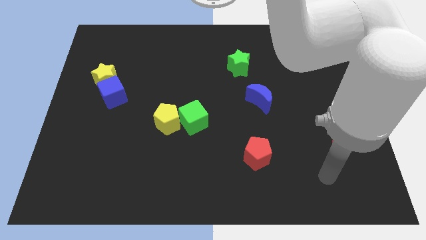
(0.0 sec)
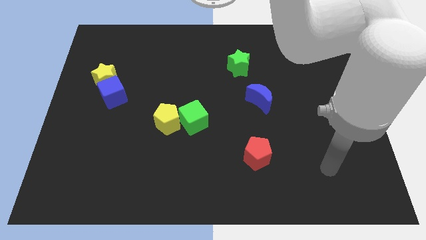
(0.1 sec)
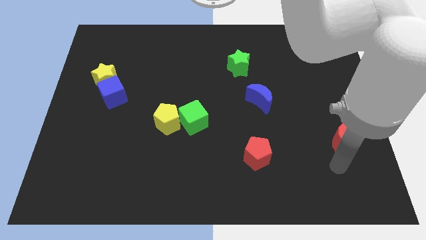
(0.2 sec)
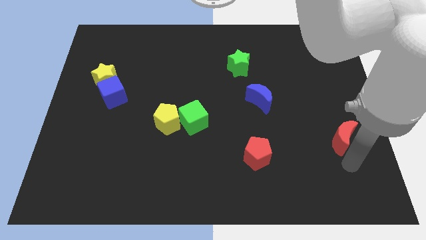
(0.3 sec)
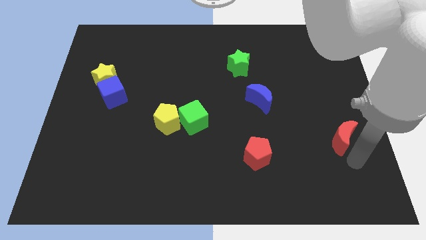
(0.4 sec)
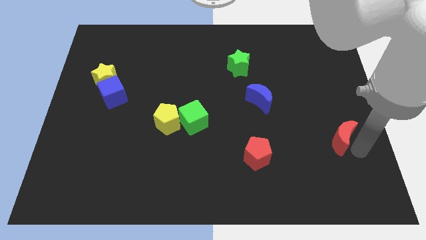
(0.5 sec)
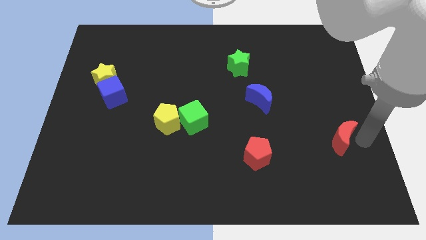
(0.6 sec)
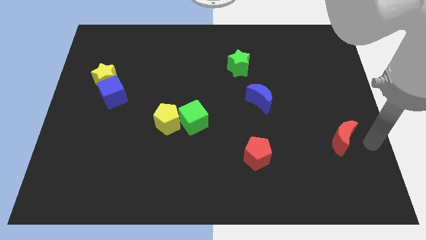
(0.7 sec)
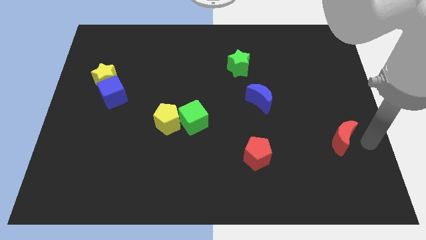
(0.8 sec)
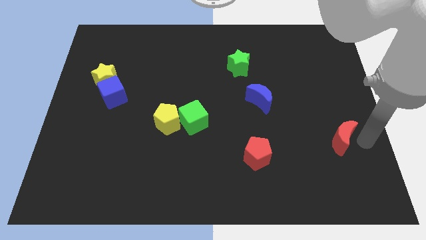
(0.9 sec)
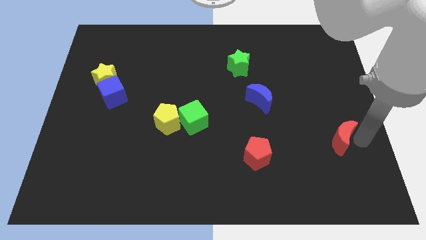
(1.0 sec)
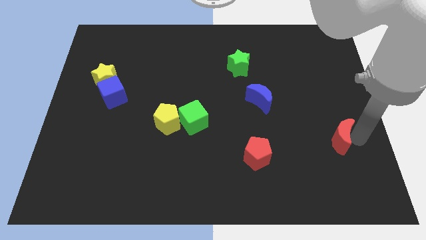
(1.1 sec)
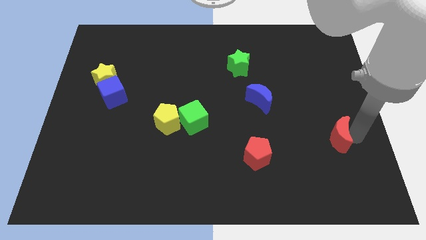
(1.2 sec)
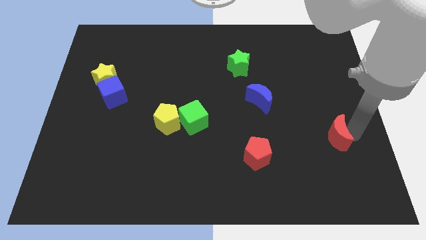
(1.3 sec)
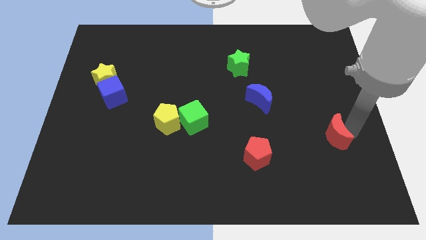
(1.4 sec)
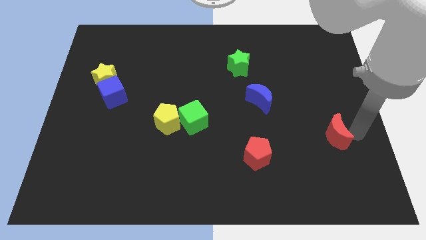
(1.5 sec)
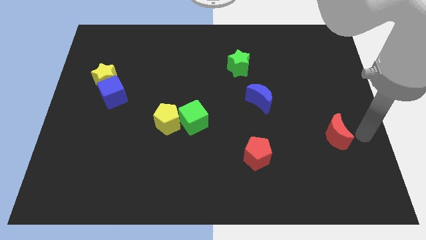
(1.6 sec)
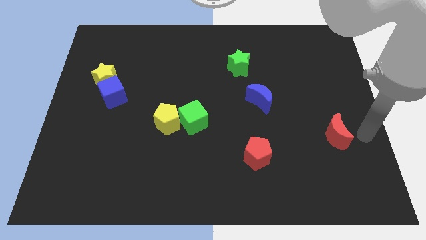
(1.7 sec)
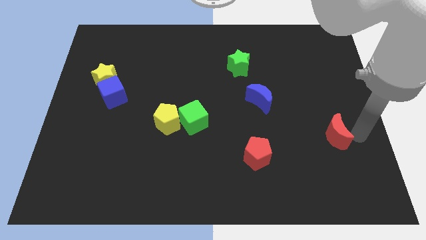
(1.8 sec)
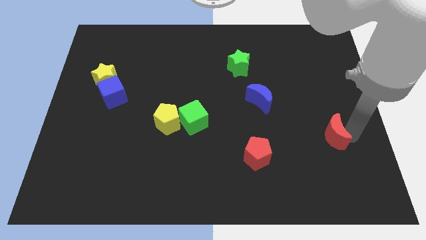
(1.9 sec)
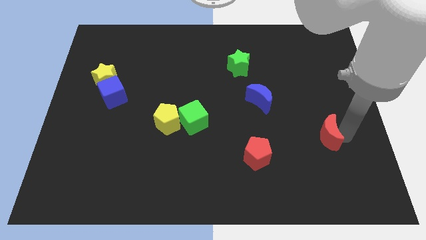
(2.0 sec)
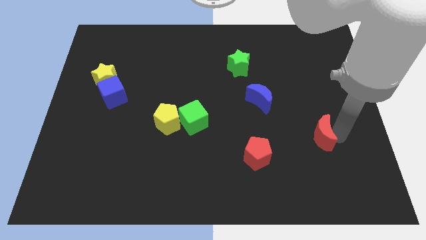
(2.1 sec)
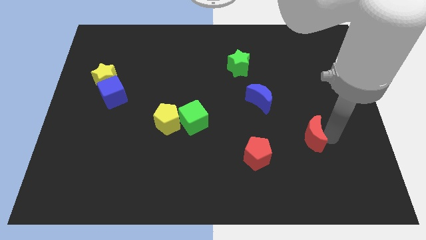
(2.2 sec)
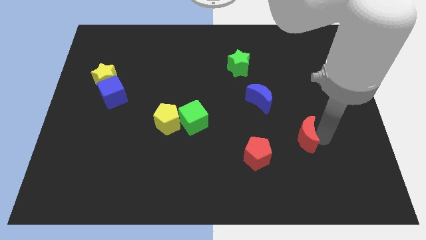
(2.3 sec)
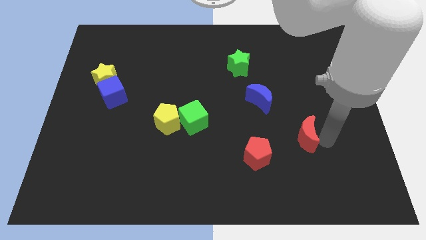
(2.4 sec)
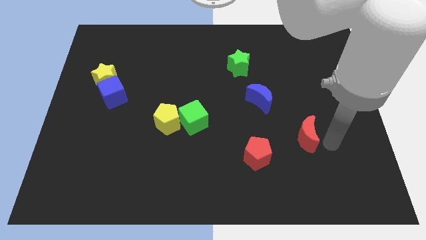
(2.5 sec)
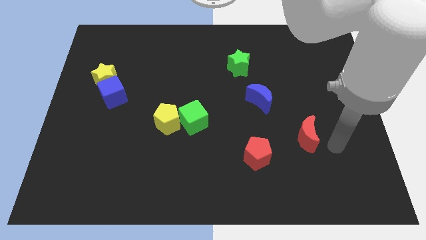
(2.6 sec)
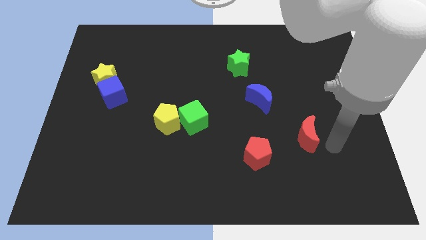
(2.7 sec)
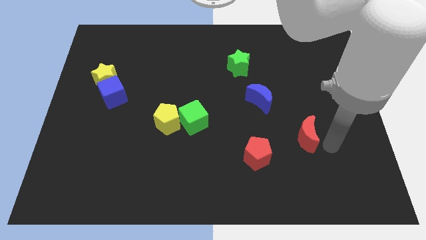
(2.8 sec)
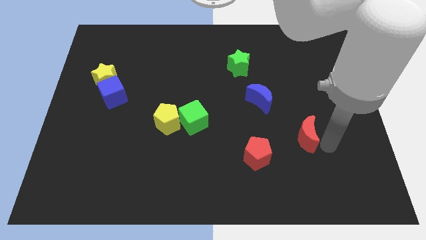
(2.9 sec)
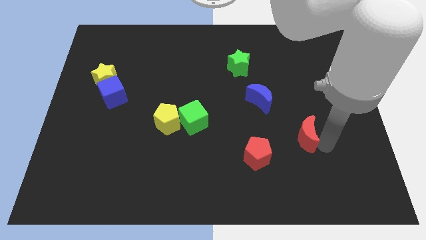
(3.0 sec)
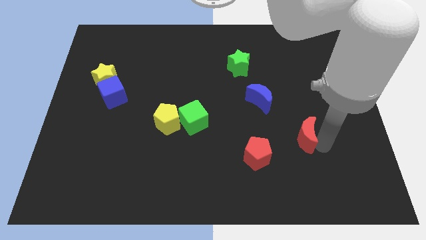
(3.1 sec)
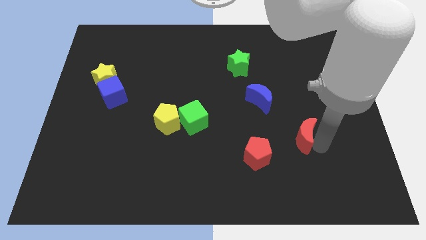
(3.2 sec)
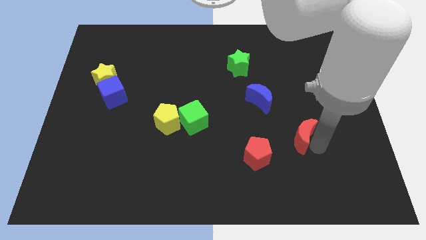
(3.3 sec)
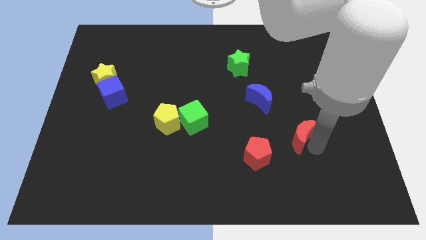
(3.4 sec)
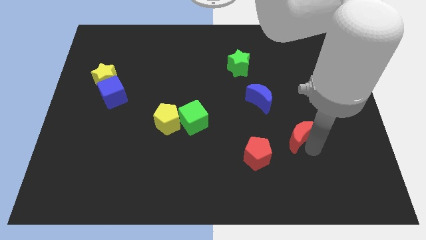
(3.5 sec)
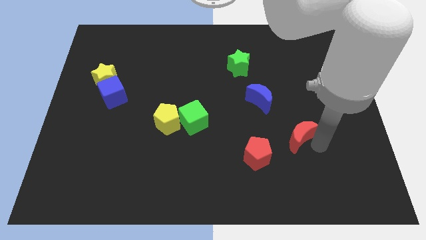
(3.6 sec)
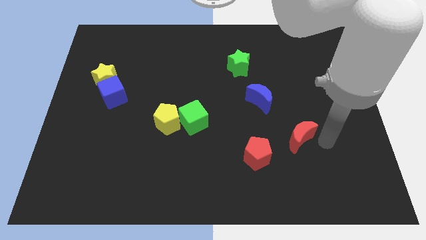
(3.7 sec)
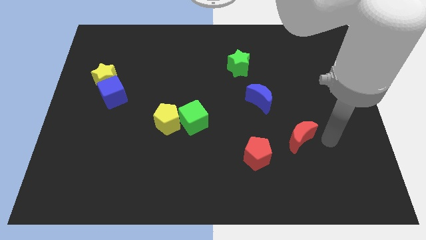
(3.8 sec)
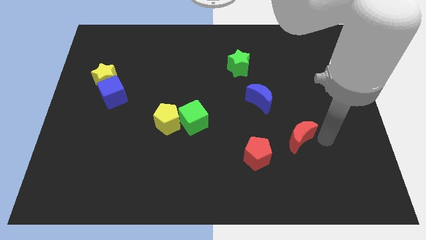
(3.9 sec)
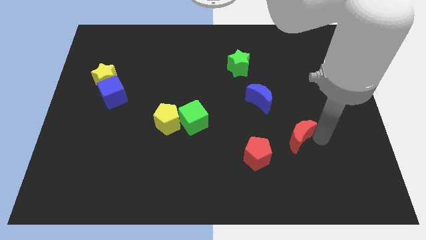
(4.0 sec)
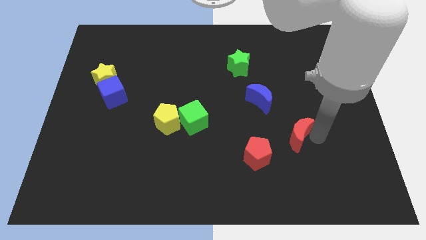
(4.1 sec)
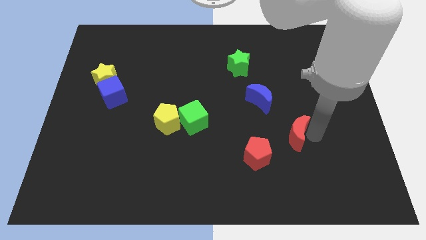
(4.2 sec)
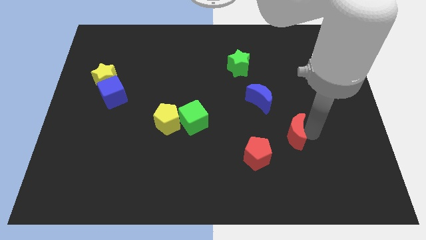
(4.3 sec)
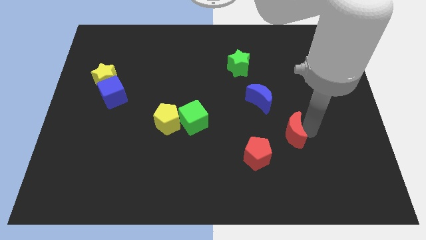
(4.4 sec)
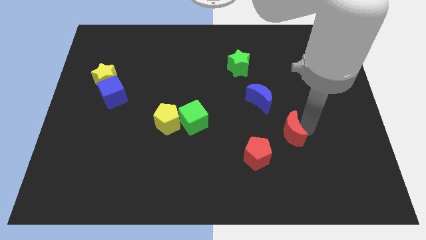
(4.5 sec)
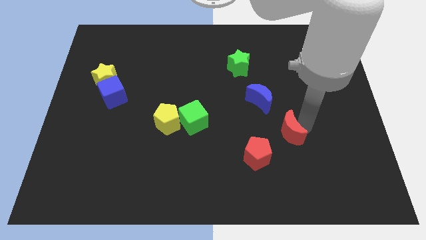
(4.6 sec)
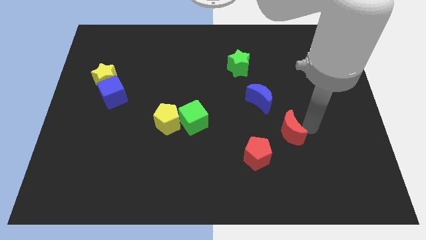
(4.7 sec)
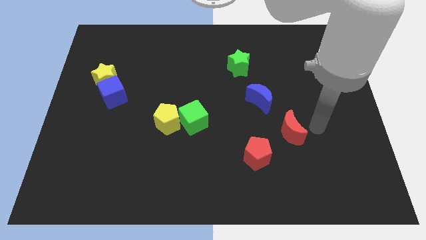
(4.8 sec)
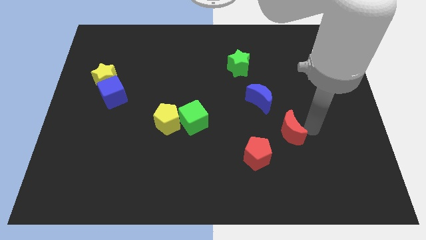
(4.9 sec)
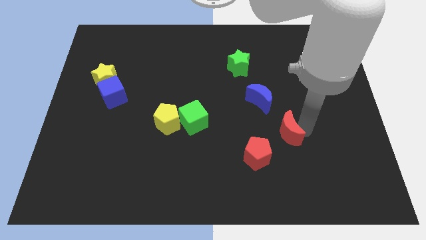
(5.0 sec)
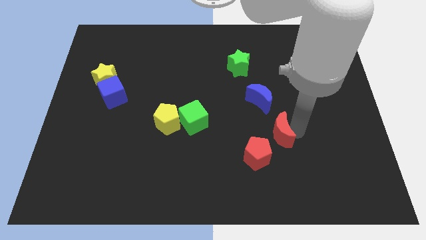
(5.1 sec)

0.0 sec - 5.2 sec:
put the red moon to the bottom side of the blue moon

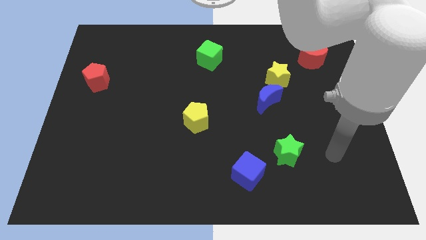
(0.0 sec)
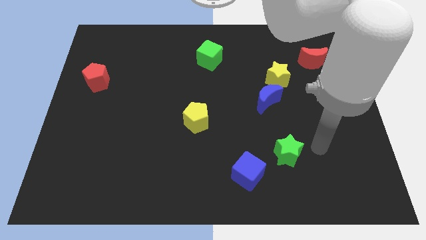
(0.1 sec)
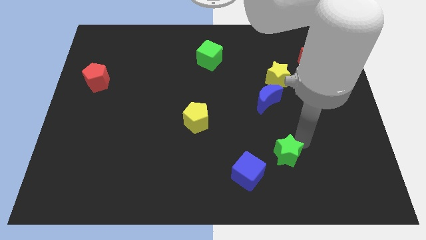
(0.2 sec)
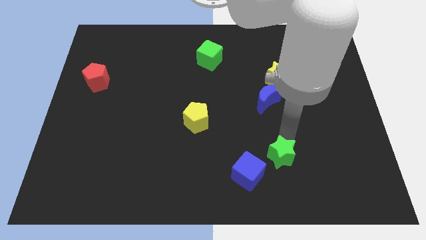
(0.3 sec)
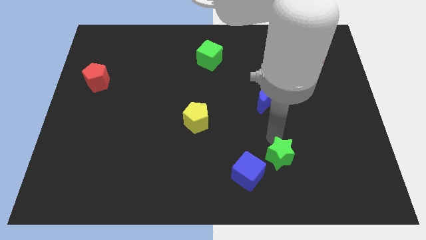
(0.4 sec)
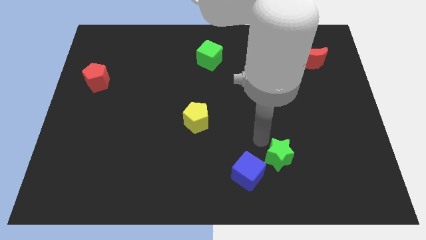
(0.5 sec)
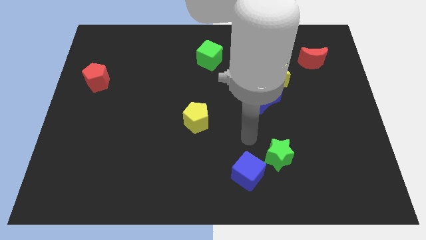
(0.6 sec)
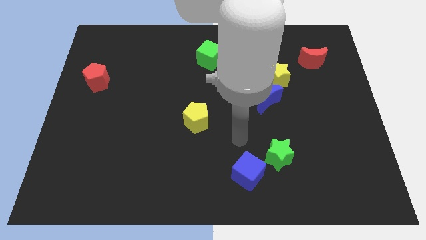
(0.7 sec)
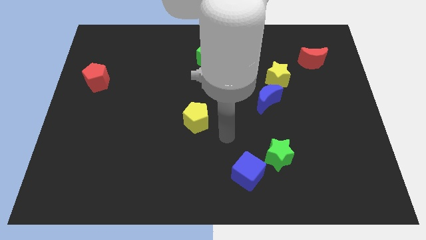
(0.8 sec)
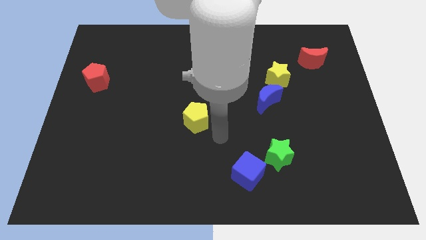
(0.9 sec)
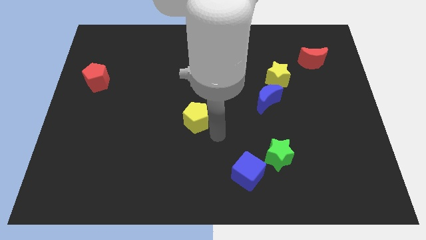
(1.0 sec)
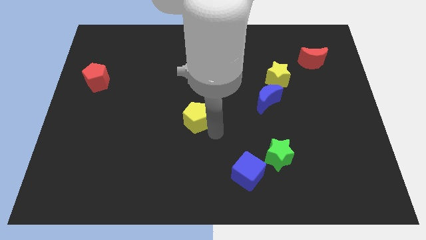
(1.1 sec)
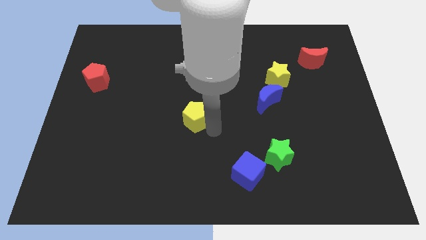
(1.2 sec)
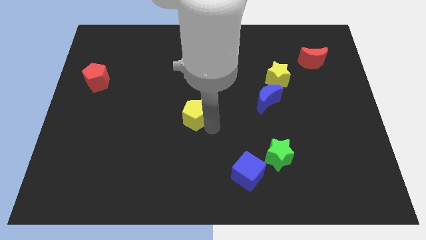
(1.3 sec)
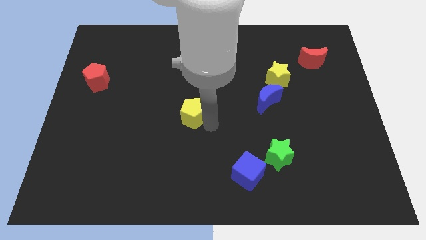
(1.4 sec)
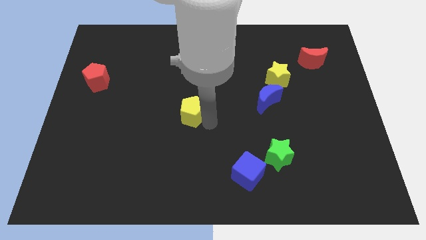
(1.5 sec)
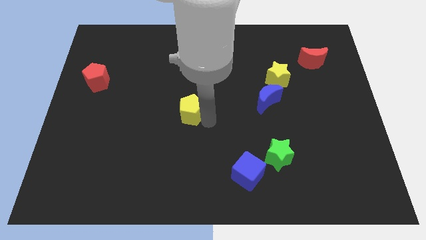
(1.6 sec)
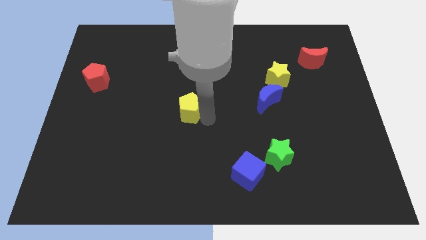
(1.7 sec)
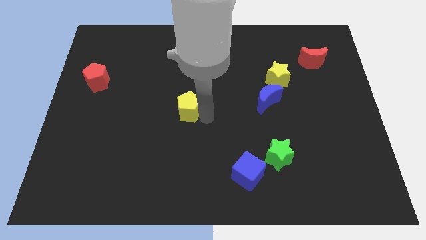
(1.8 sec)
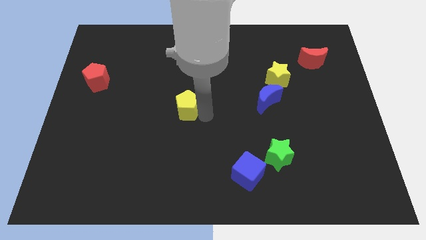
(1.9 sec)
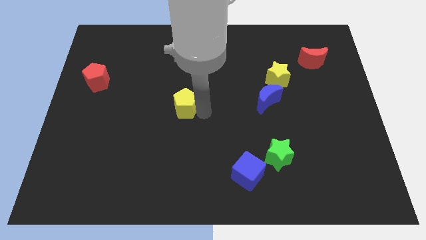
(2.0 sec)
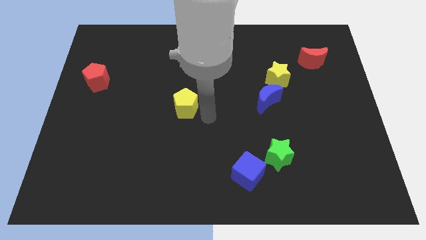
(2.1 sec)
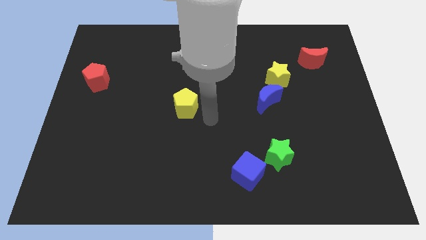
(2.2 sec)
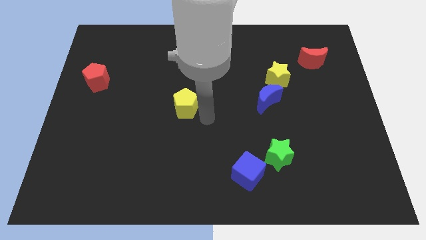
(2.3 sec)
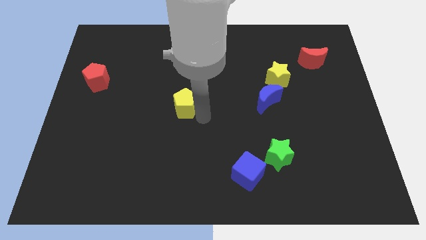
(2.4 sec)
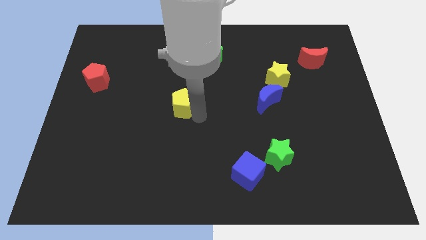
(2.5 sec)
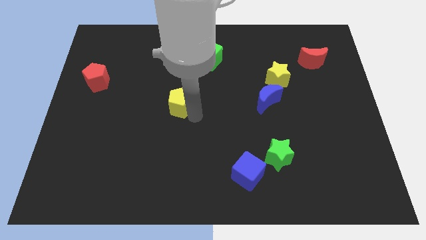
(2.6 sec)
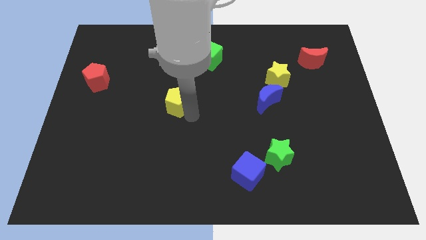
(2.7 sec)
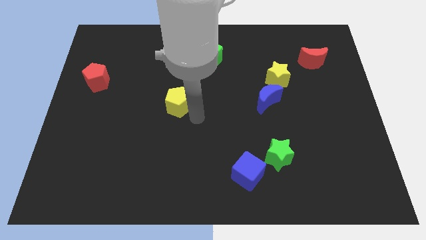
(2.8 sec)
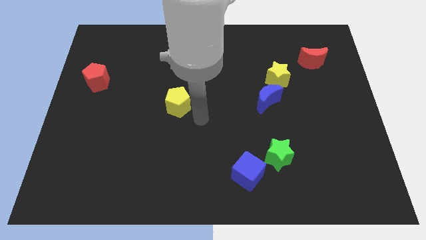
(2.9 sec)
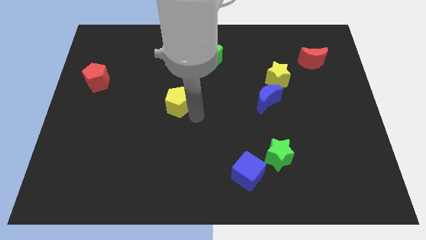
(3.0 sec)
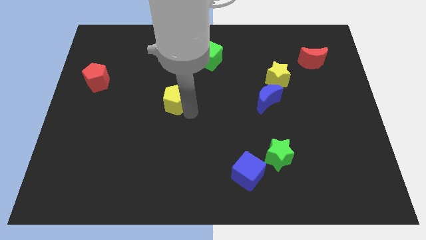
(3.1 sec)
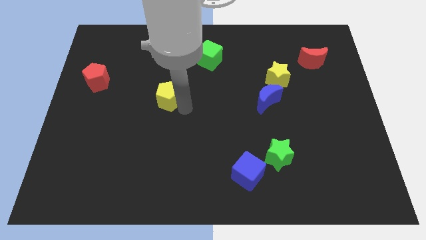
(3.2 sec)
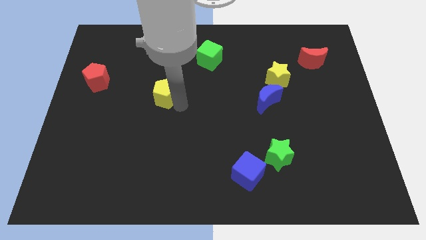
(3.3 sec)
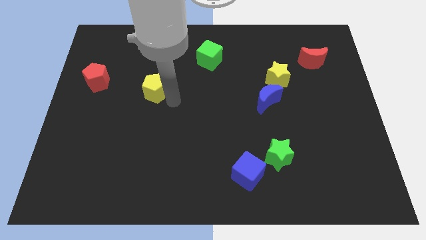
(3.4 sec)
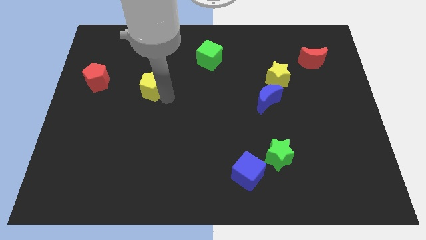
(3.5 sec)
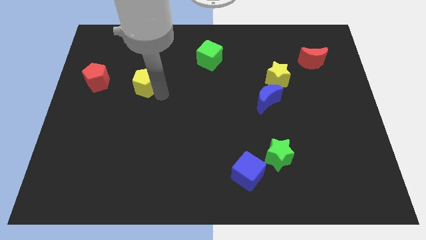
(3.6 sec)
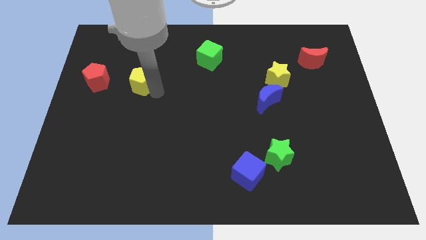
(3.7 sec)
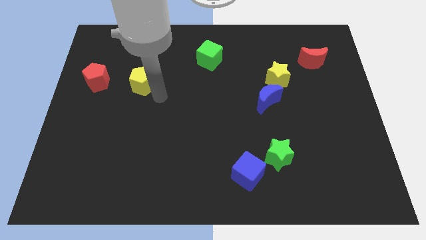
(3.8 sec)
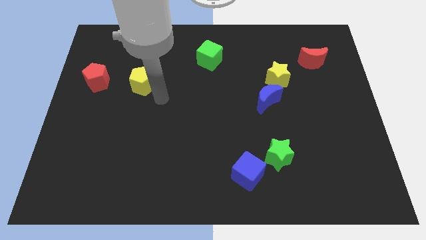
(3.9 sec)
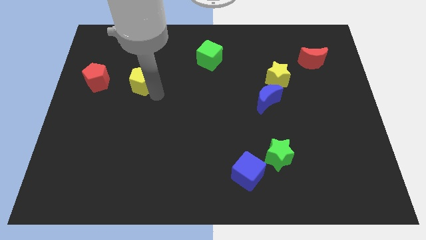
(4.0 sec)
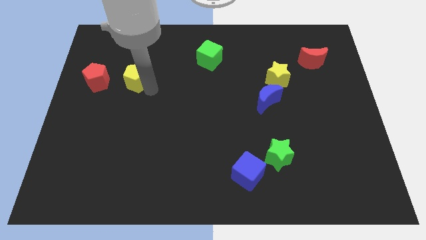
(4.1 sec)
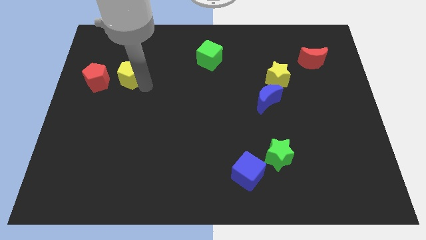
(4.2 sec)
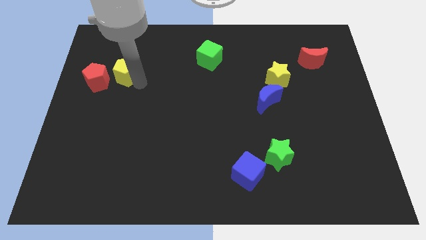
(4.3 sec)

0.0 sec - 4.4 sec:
put the yellow pentagon diagonally up and to the right of the red pentagon
